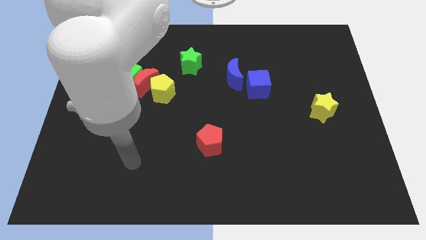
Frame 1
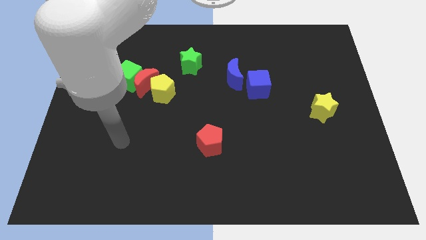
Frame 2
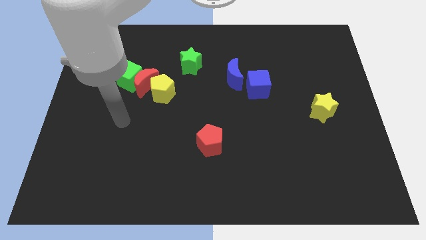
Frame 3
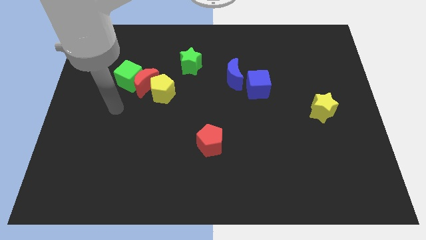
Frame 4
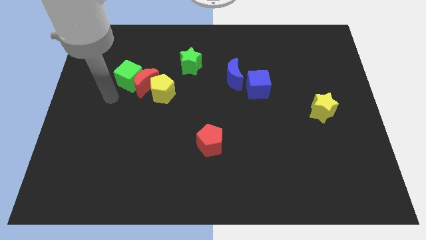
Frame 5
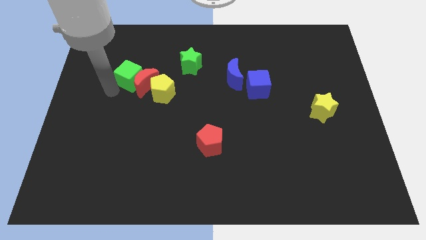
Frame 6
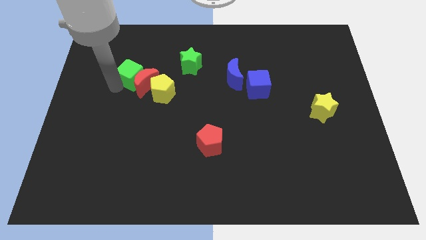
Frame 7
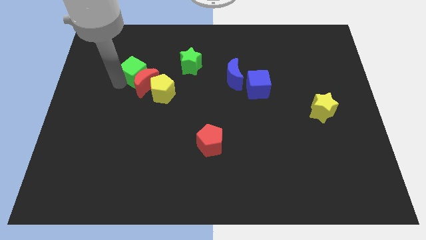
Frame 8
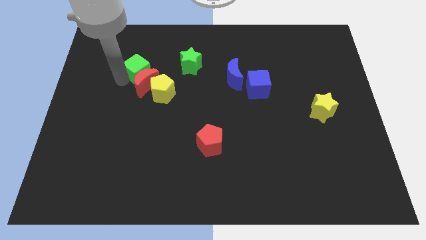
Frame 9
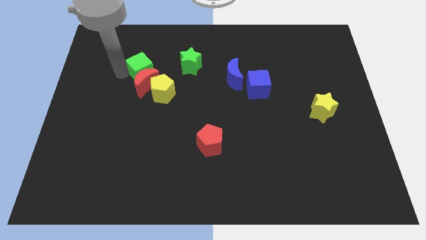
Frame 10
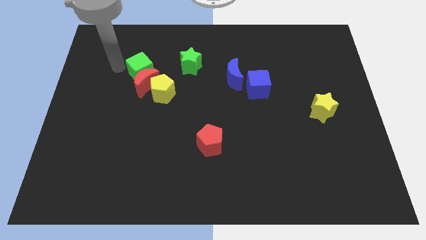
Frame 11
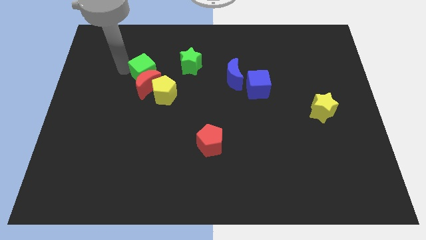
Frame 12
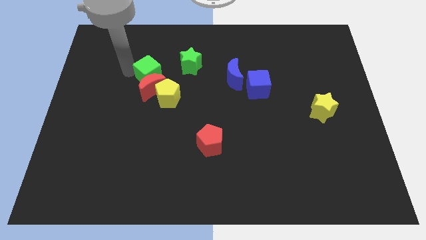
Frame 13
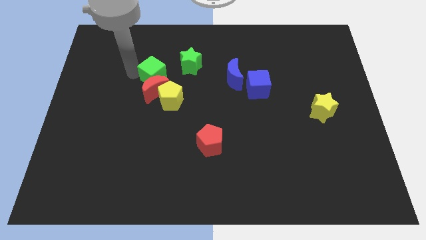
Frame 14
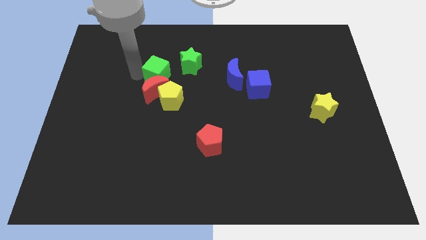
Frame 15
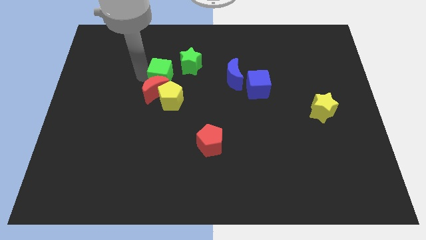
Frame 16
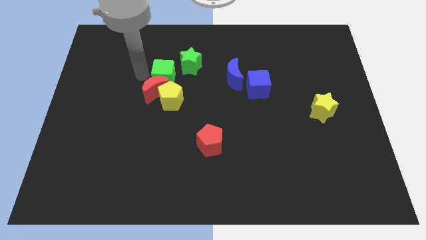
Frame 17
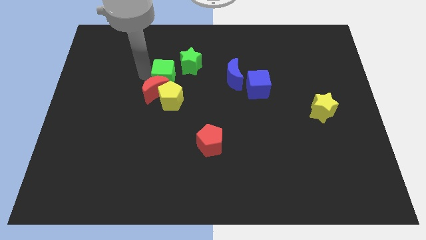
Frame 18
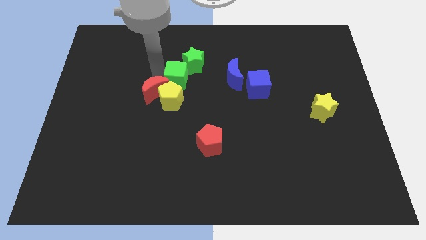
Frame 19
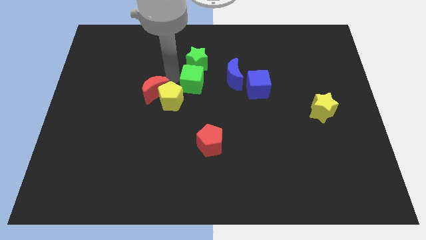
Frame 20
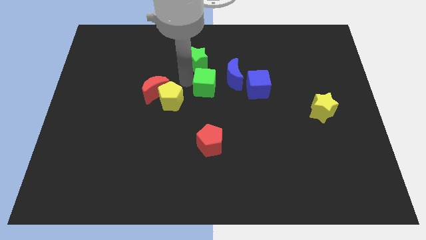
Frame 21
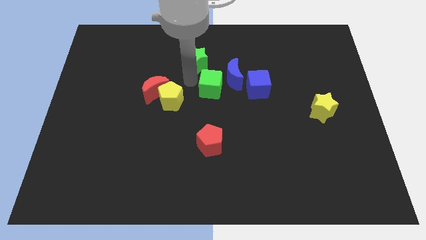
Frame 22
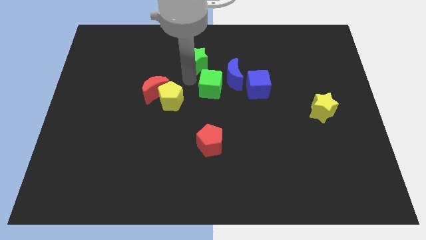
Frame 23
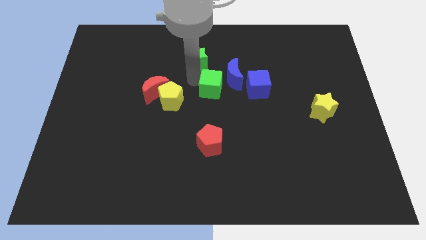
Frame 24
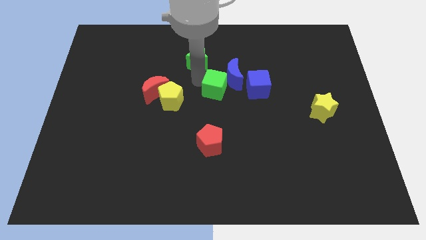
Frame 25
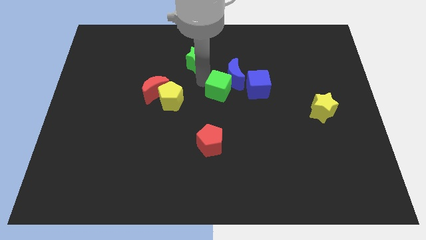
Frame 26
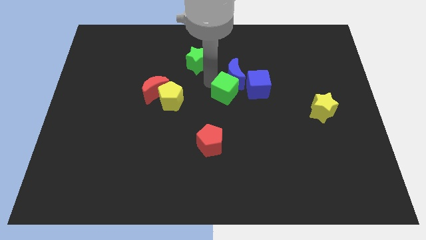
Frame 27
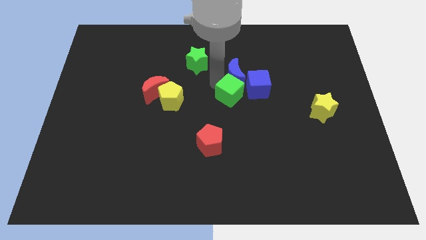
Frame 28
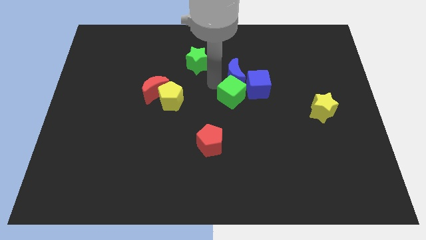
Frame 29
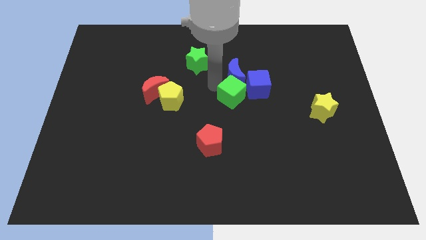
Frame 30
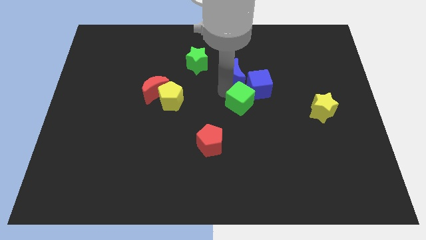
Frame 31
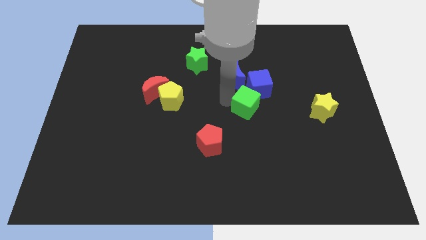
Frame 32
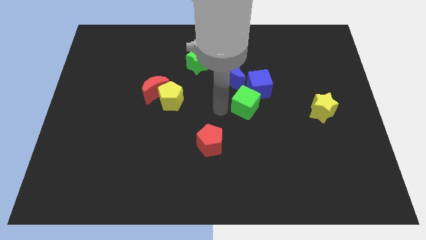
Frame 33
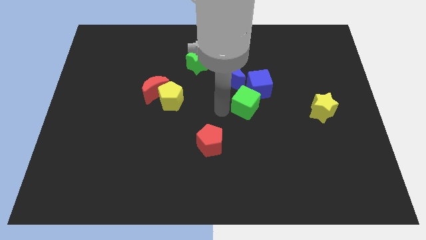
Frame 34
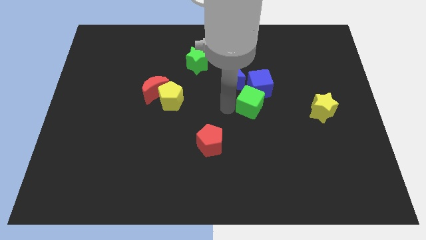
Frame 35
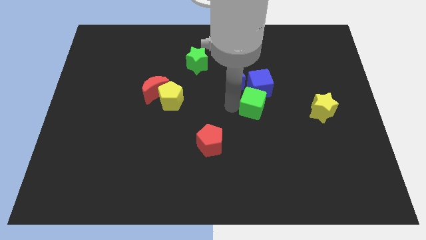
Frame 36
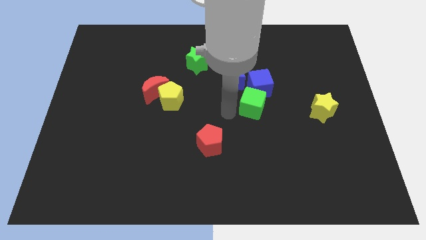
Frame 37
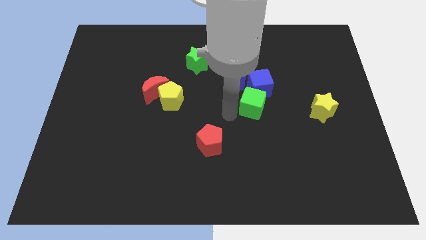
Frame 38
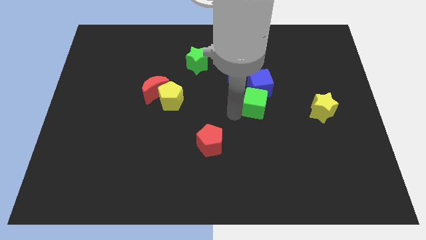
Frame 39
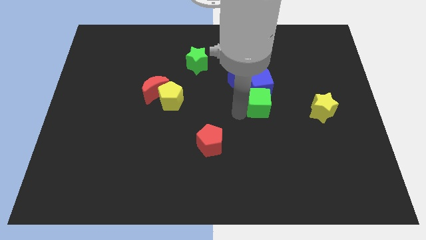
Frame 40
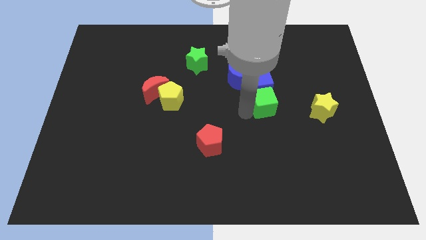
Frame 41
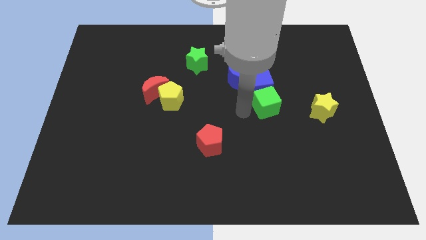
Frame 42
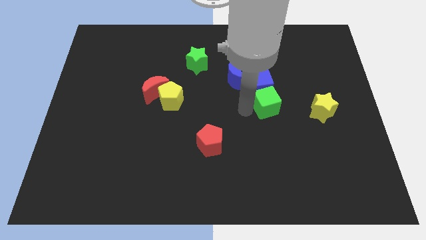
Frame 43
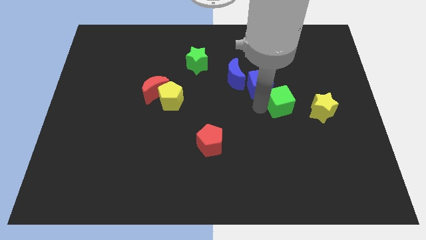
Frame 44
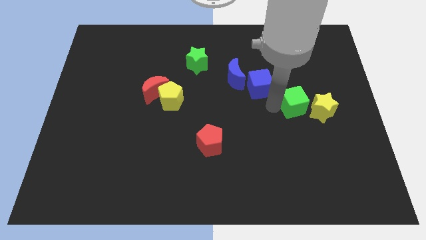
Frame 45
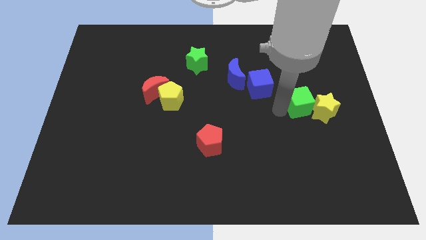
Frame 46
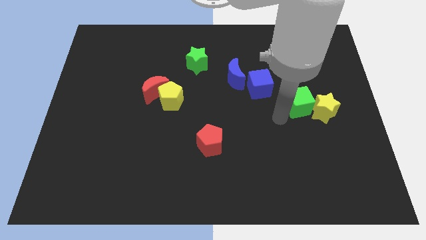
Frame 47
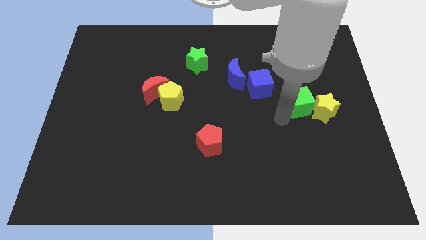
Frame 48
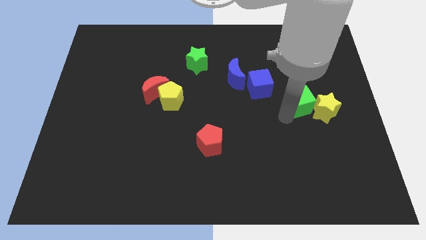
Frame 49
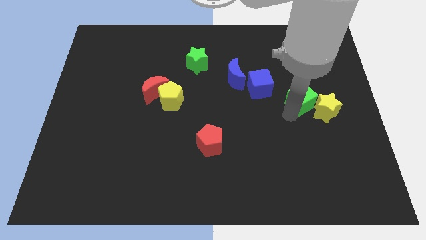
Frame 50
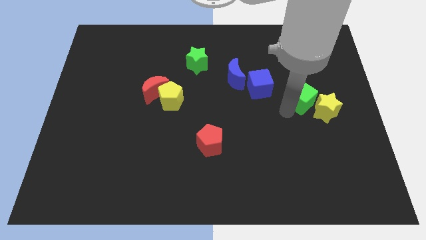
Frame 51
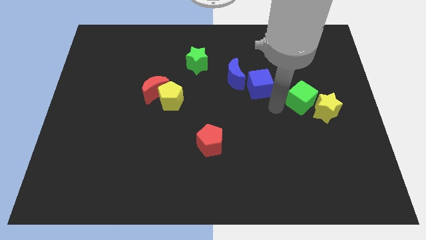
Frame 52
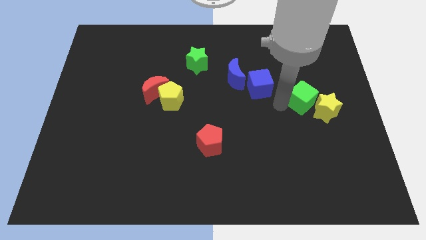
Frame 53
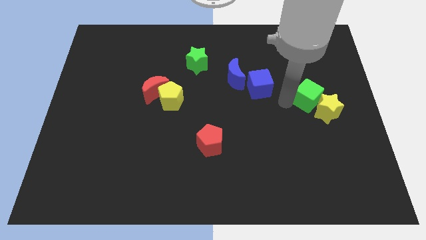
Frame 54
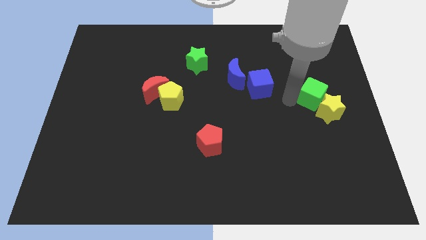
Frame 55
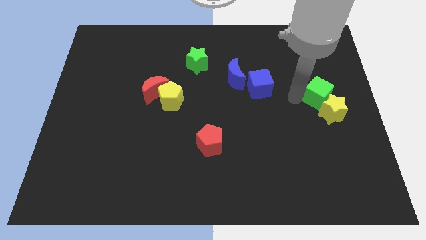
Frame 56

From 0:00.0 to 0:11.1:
put the green cube to the right side

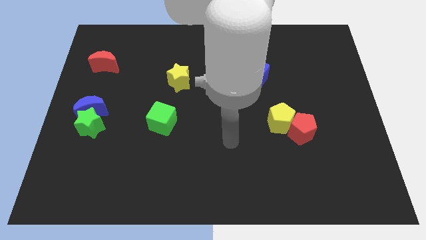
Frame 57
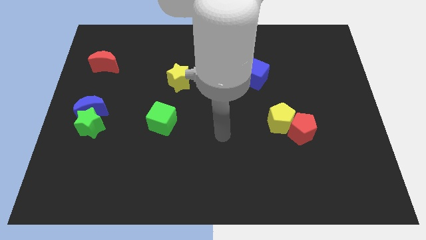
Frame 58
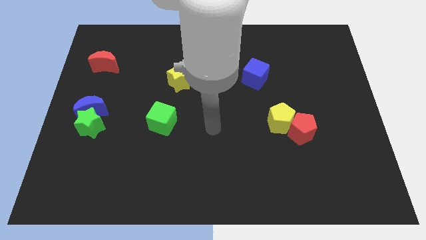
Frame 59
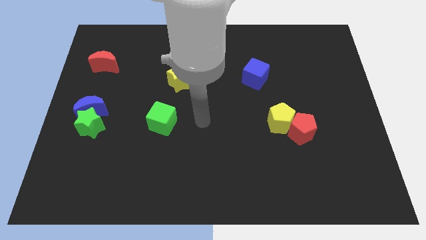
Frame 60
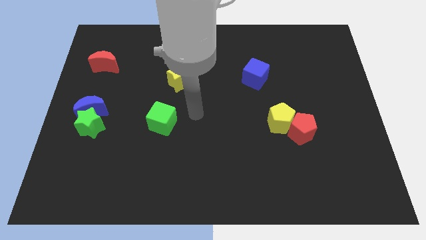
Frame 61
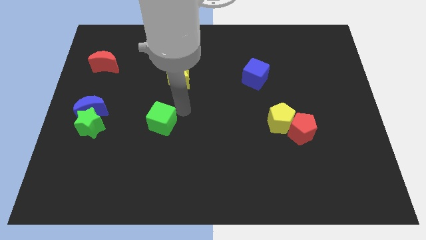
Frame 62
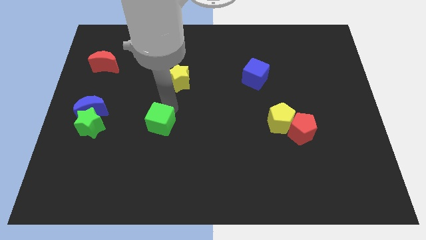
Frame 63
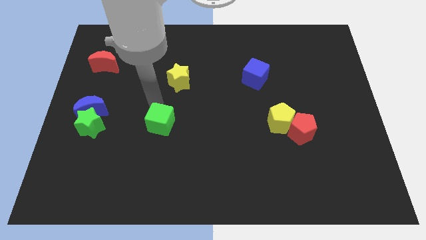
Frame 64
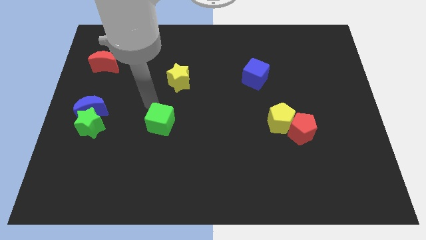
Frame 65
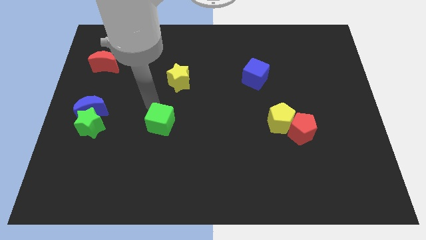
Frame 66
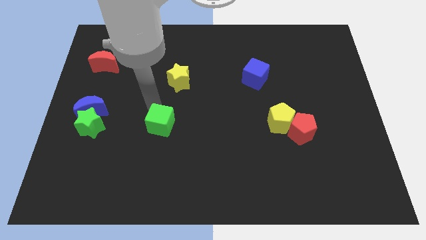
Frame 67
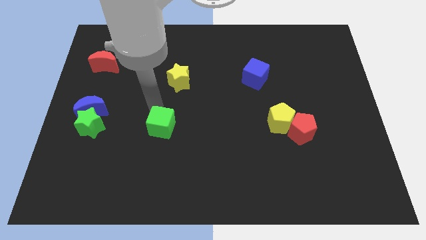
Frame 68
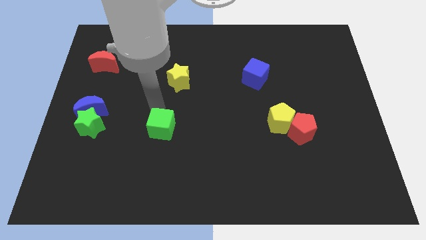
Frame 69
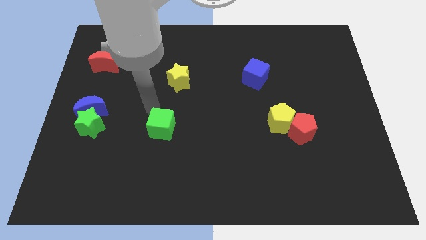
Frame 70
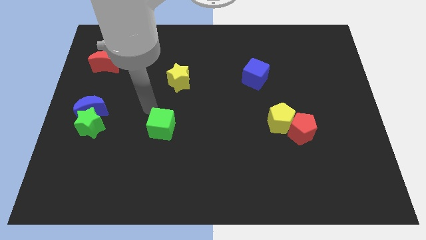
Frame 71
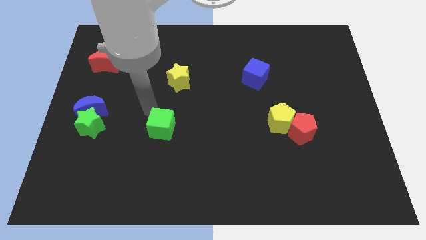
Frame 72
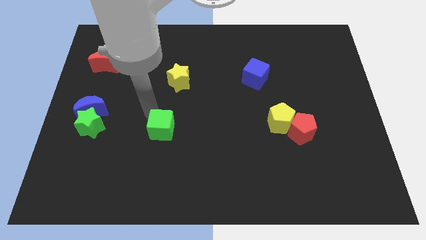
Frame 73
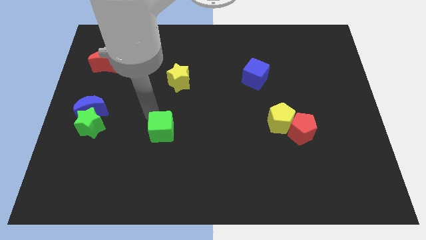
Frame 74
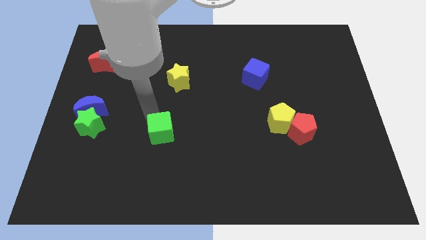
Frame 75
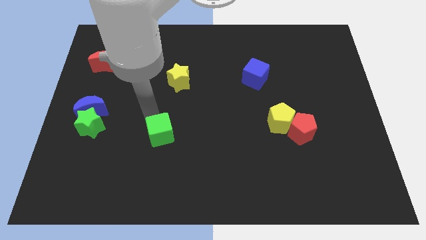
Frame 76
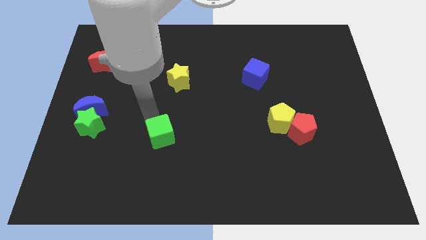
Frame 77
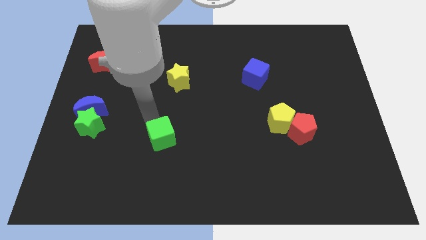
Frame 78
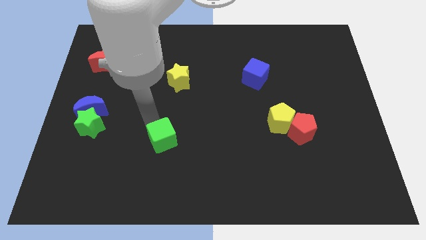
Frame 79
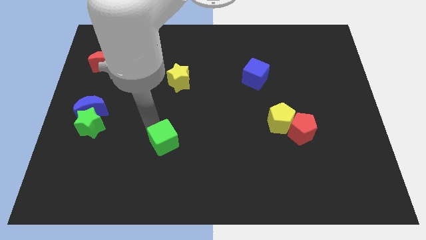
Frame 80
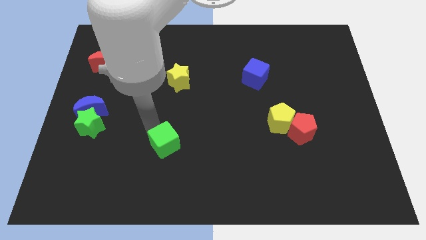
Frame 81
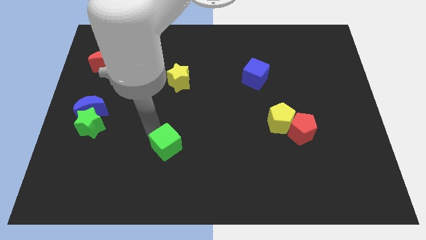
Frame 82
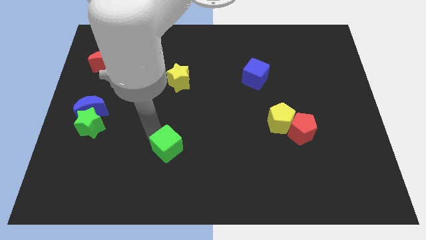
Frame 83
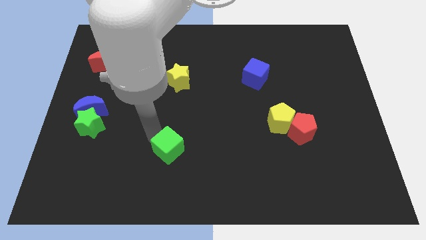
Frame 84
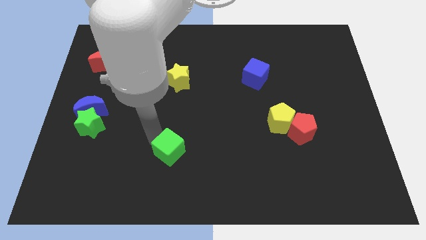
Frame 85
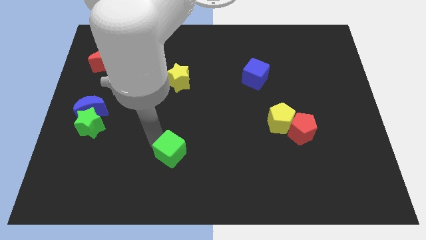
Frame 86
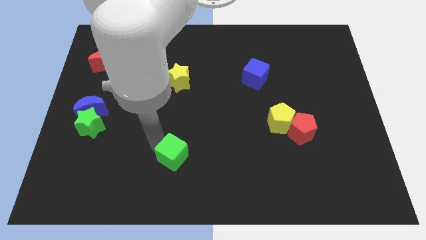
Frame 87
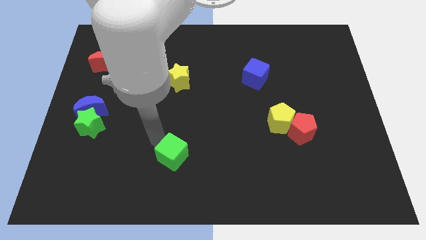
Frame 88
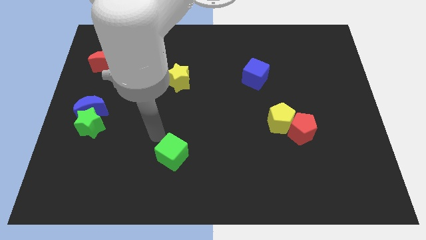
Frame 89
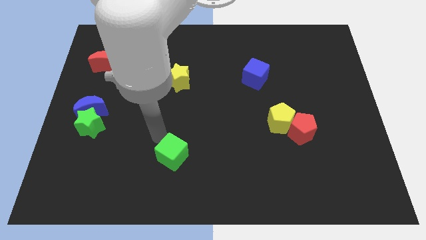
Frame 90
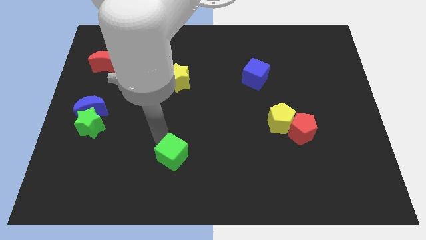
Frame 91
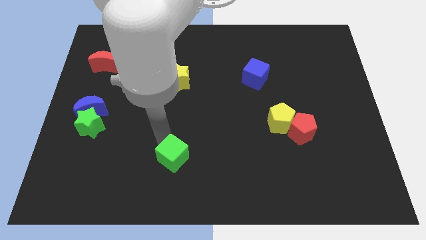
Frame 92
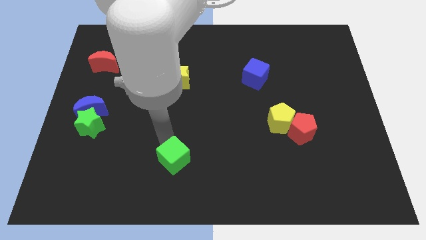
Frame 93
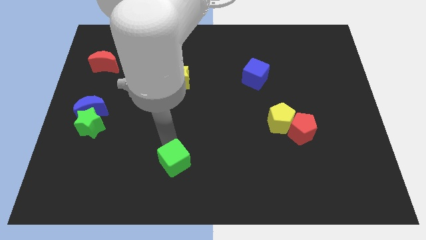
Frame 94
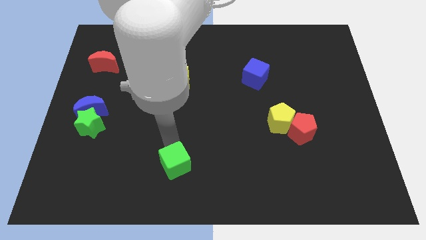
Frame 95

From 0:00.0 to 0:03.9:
put the green cube to the bottom
